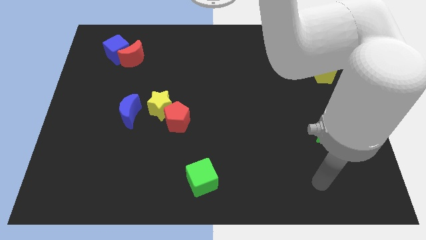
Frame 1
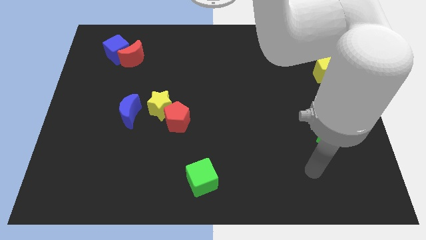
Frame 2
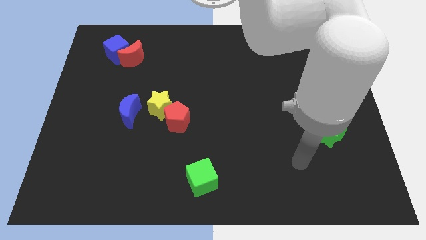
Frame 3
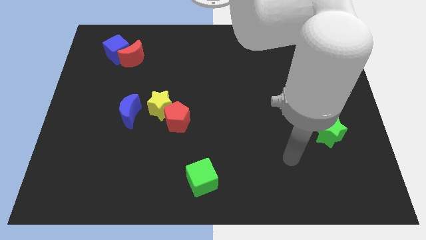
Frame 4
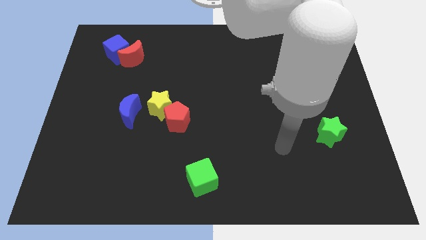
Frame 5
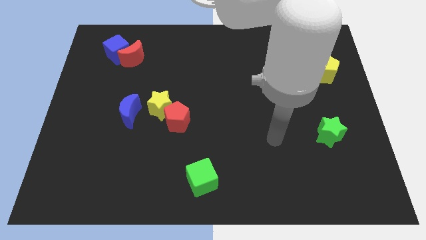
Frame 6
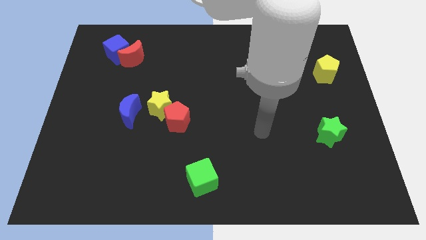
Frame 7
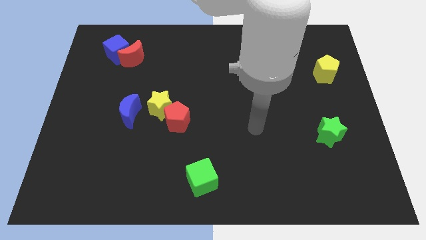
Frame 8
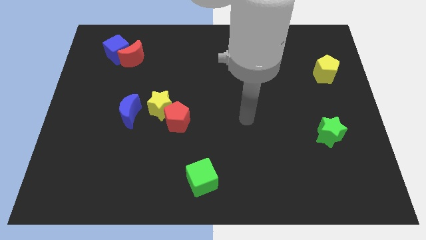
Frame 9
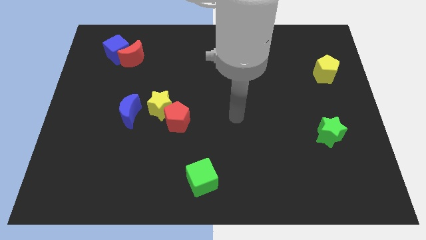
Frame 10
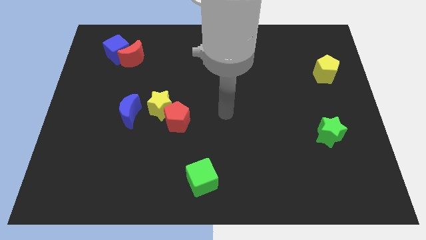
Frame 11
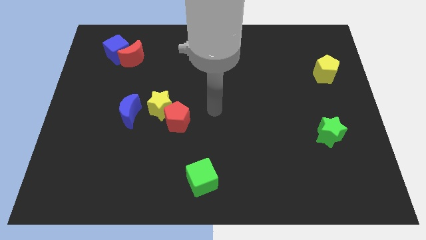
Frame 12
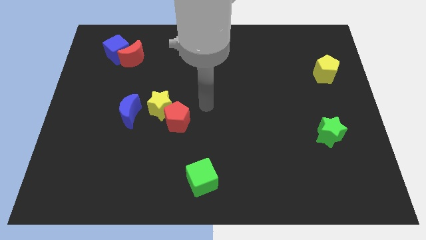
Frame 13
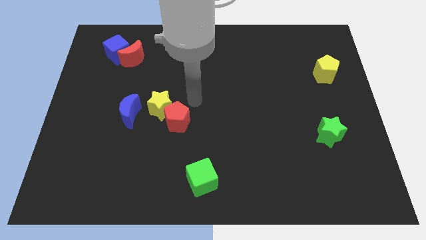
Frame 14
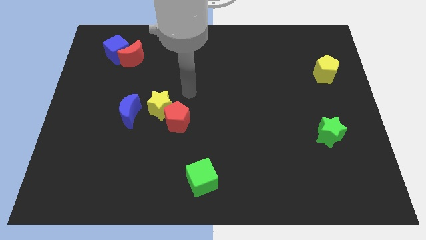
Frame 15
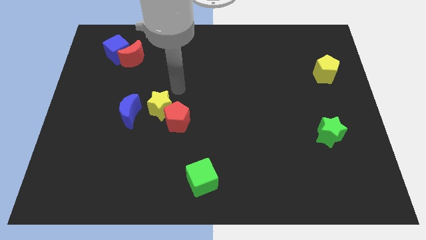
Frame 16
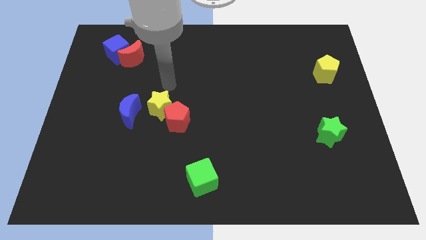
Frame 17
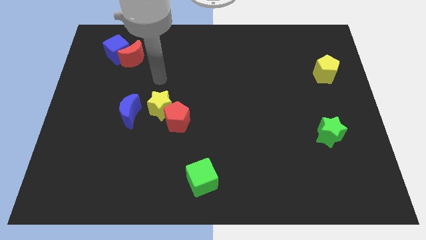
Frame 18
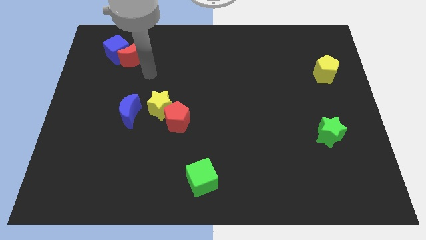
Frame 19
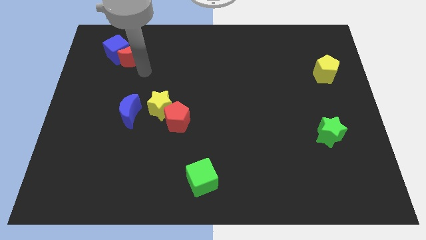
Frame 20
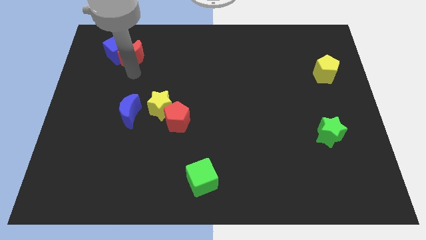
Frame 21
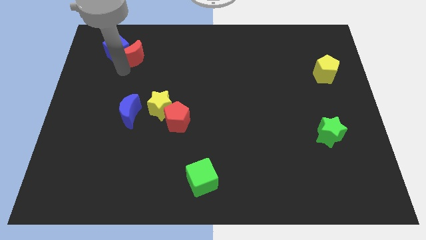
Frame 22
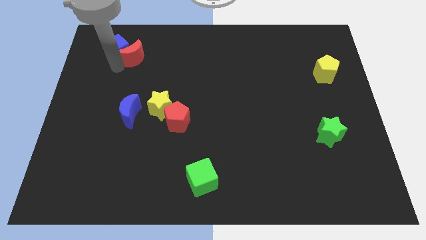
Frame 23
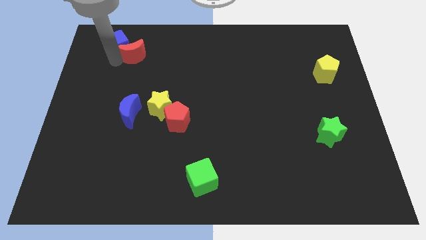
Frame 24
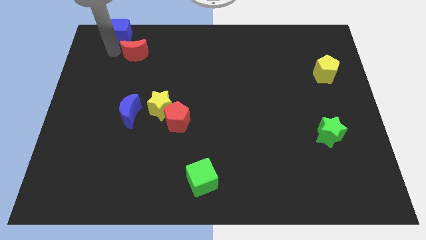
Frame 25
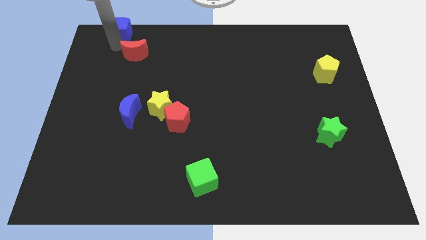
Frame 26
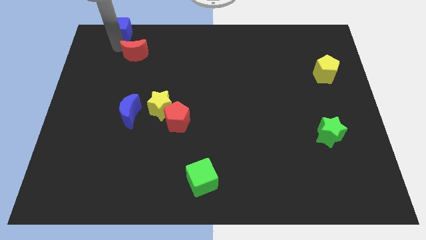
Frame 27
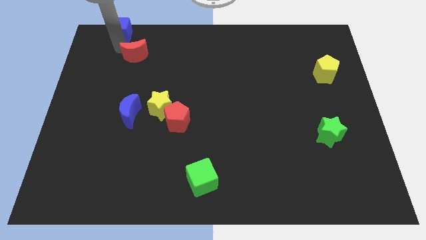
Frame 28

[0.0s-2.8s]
move the red moon away from the blue cube

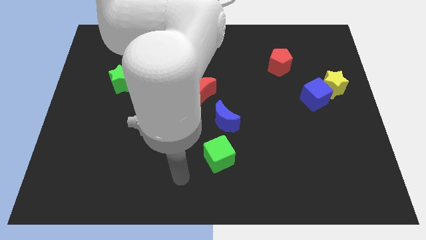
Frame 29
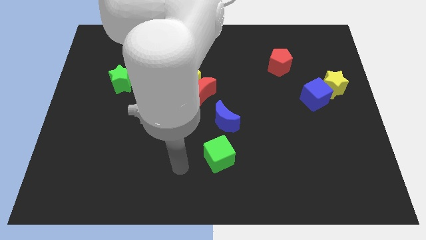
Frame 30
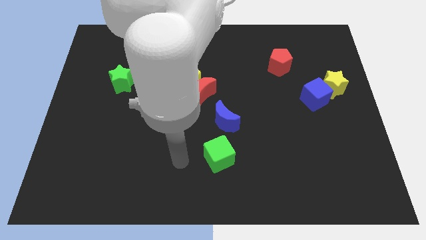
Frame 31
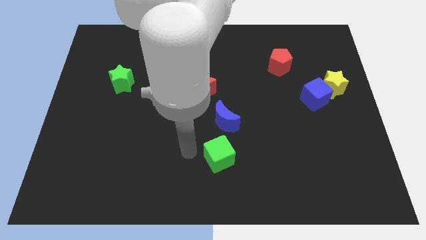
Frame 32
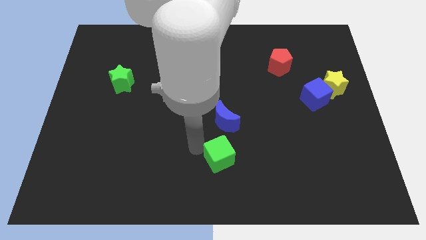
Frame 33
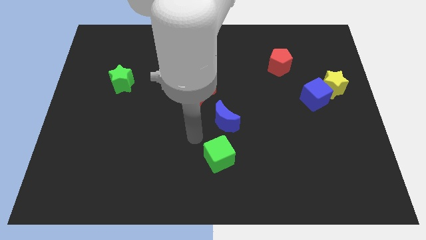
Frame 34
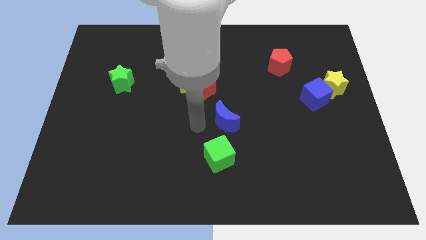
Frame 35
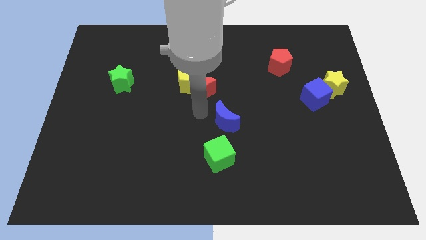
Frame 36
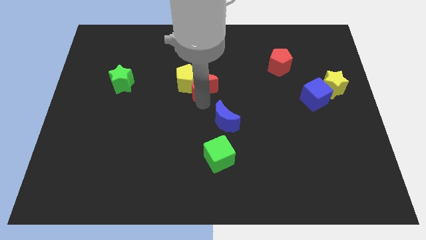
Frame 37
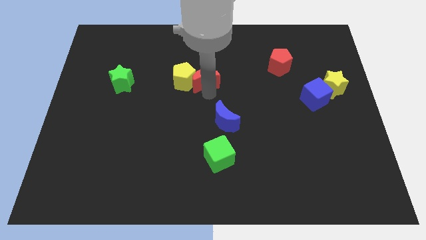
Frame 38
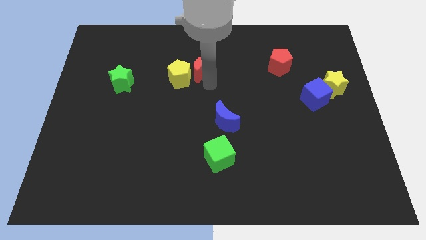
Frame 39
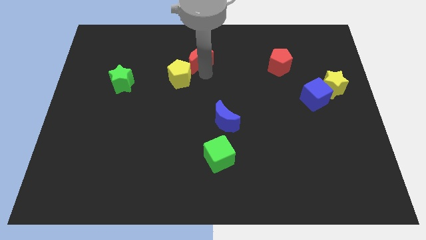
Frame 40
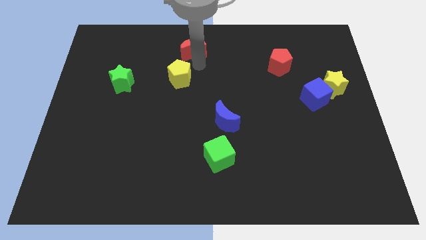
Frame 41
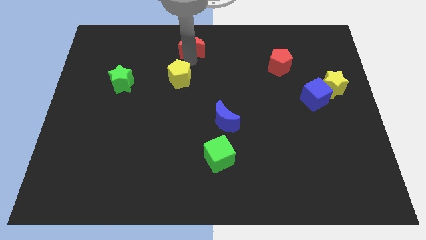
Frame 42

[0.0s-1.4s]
separate the yellow pentagon from the red moon

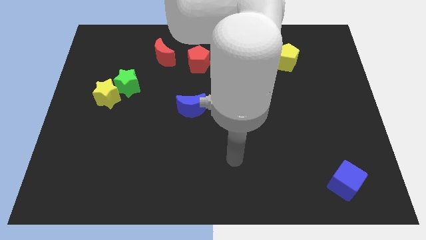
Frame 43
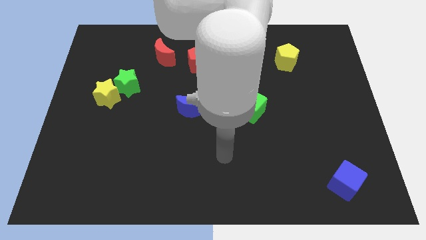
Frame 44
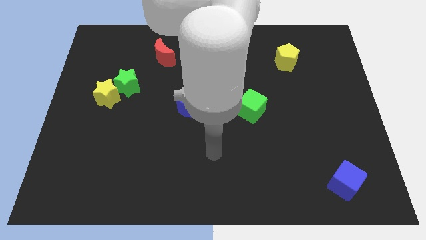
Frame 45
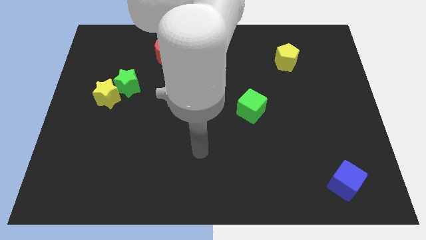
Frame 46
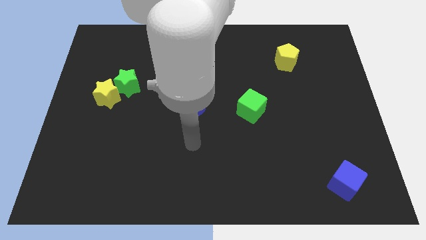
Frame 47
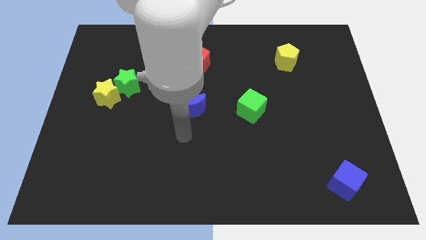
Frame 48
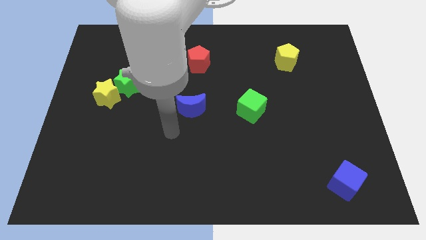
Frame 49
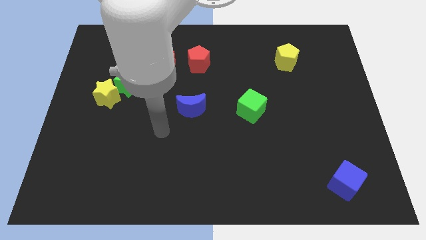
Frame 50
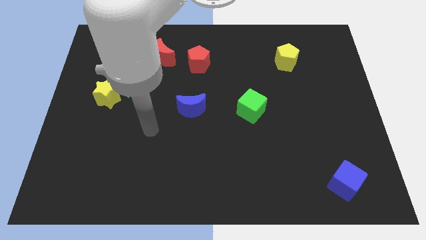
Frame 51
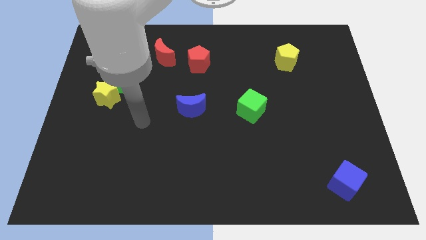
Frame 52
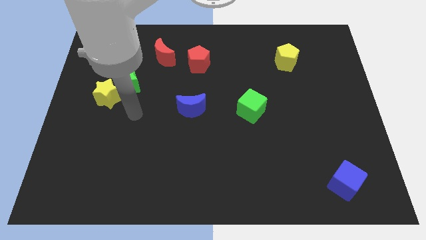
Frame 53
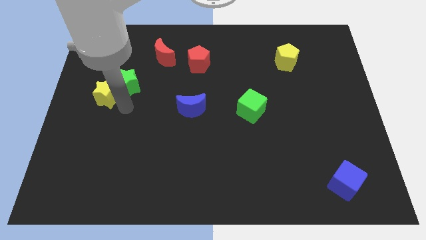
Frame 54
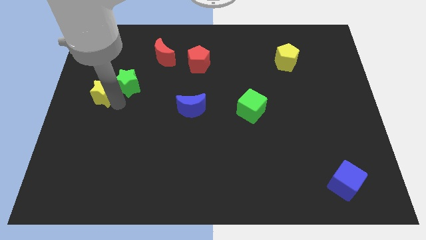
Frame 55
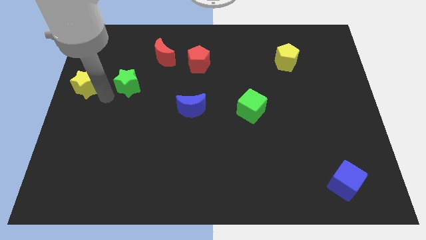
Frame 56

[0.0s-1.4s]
separate the green star from the yellow star

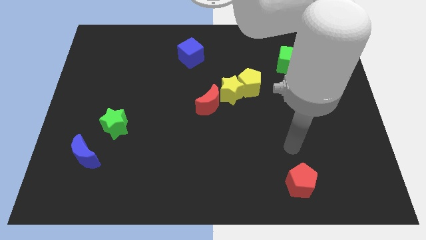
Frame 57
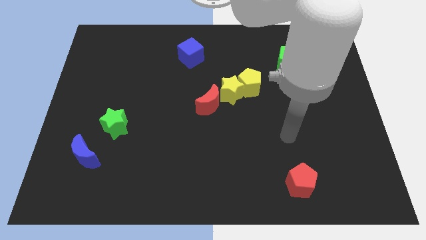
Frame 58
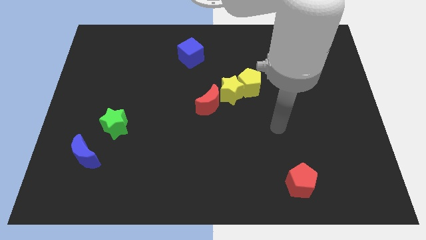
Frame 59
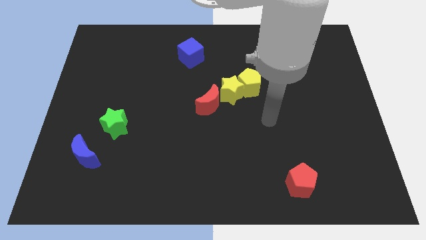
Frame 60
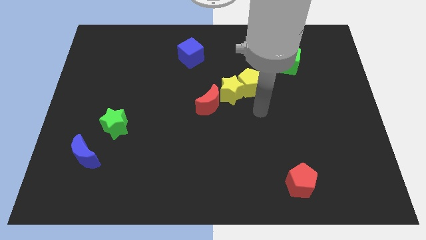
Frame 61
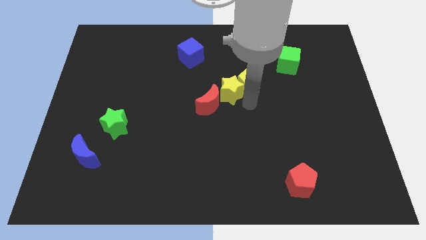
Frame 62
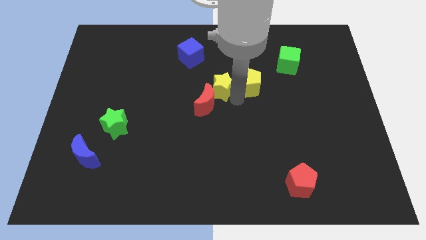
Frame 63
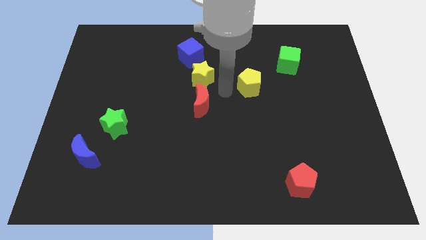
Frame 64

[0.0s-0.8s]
move the yellow pentagon away from the yellow star

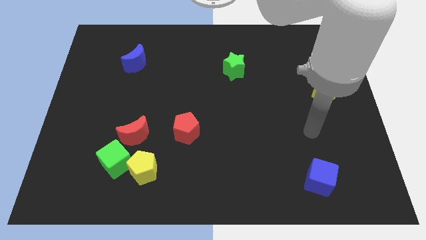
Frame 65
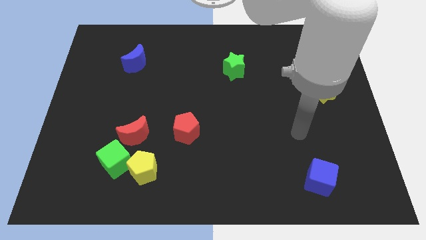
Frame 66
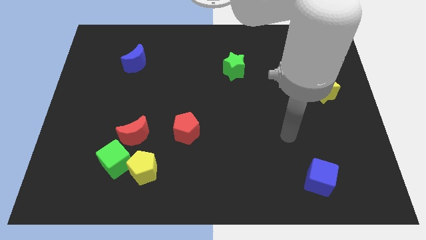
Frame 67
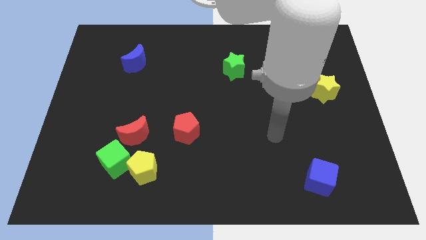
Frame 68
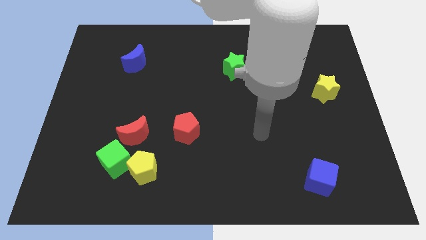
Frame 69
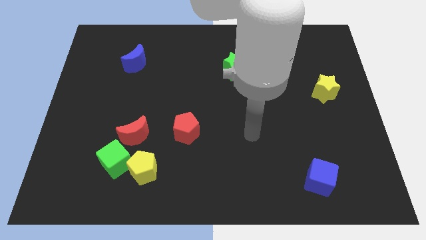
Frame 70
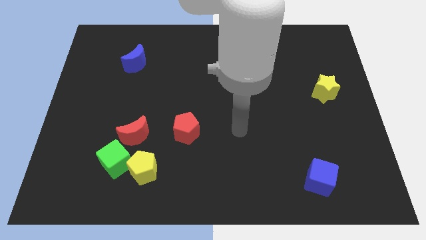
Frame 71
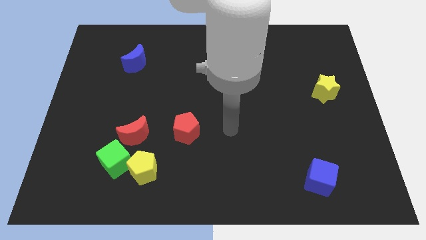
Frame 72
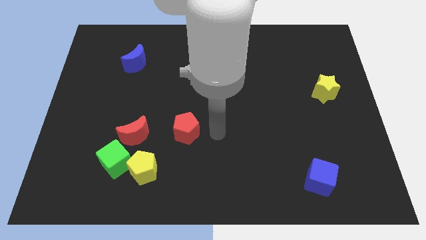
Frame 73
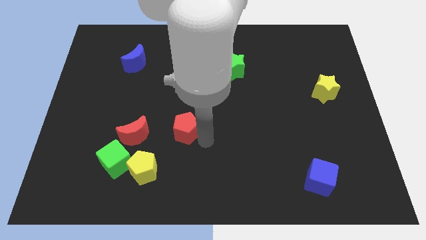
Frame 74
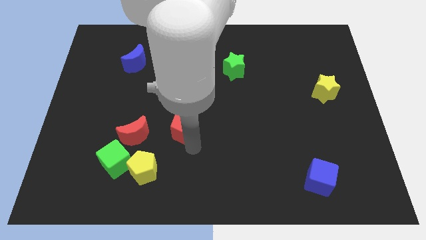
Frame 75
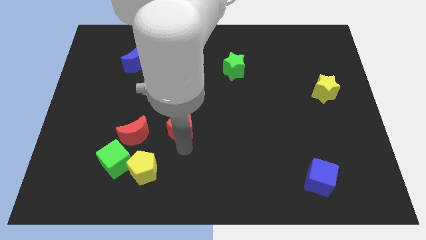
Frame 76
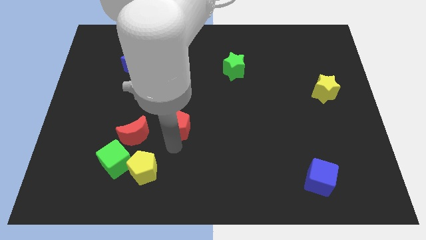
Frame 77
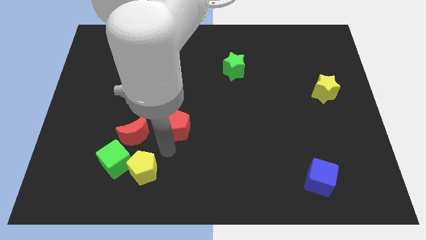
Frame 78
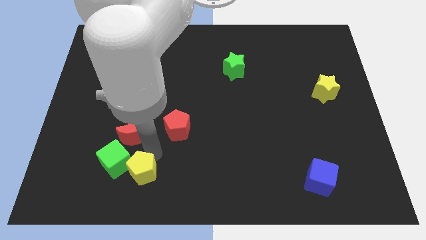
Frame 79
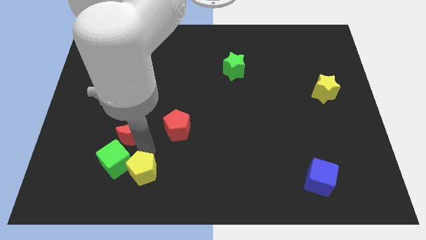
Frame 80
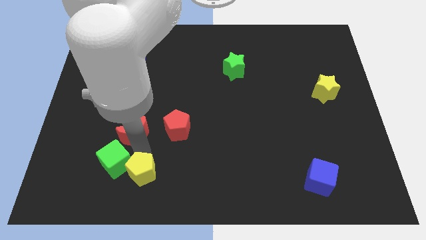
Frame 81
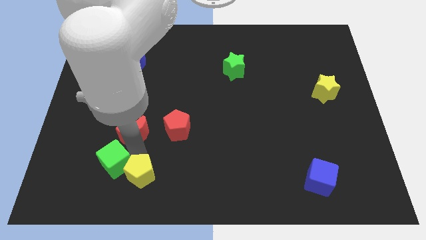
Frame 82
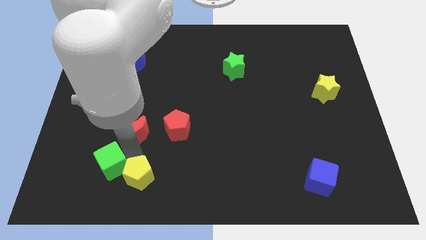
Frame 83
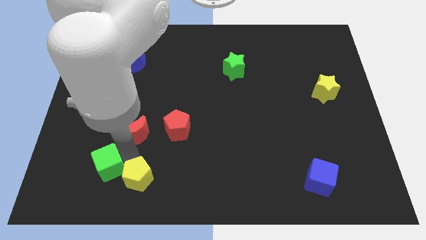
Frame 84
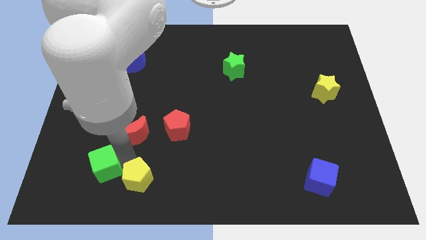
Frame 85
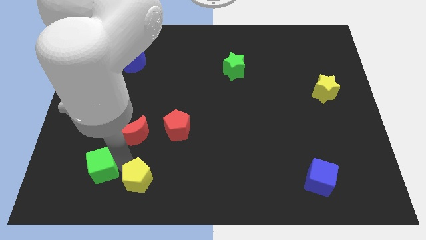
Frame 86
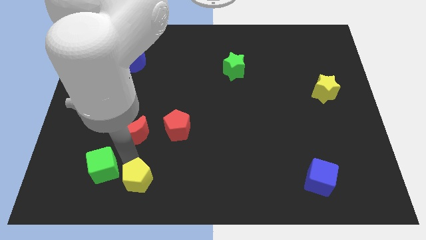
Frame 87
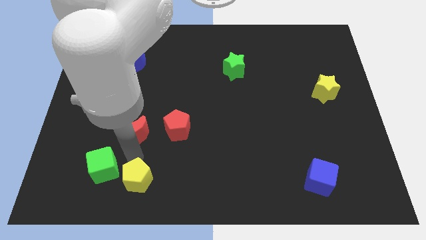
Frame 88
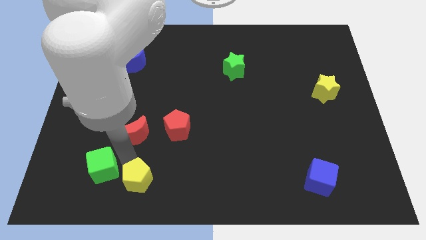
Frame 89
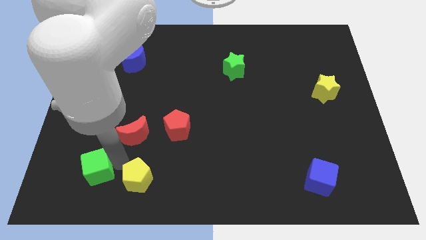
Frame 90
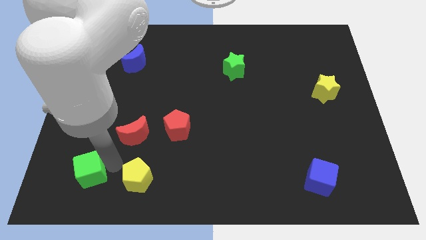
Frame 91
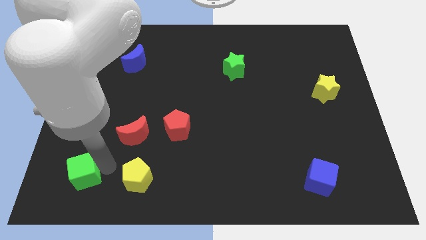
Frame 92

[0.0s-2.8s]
pull the green cube apart from the yellow pentagon and red moon

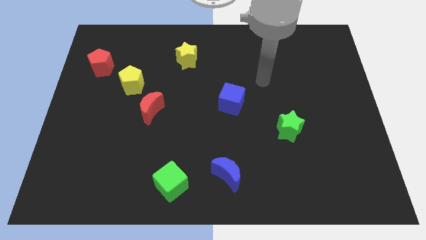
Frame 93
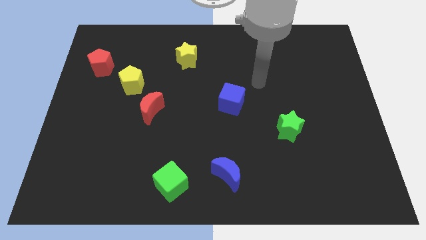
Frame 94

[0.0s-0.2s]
pull the red moon apart from the yellow pentagon
